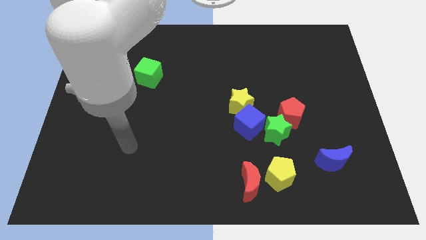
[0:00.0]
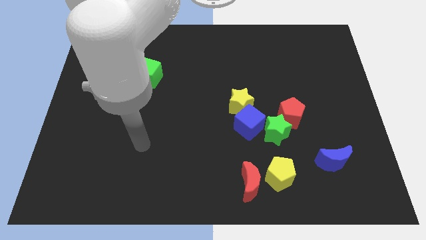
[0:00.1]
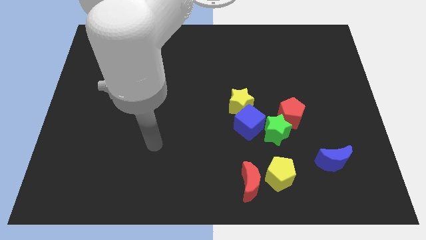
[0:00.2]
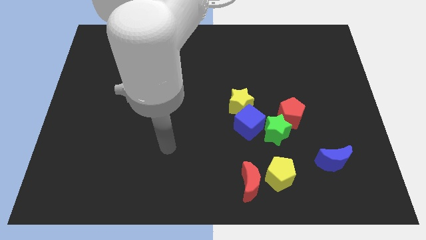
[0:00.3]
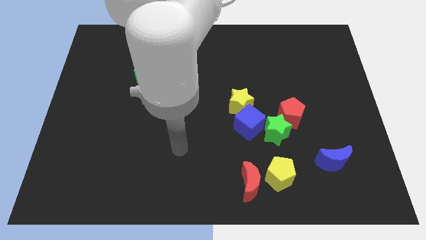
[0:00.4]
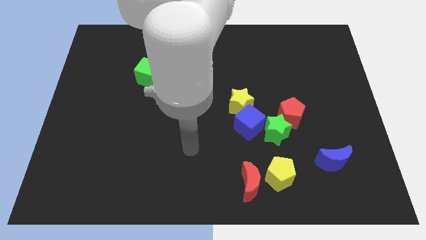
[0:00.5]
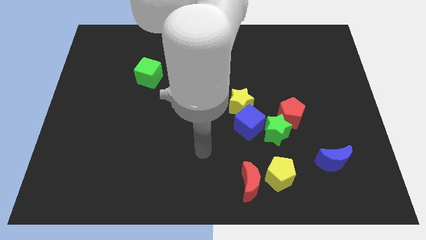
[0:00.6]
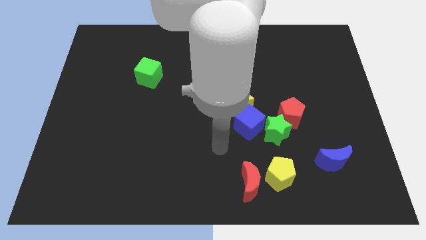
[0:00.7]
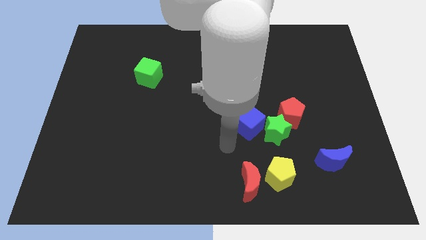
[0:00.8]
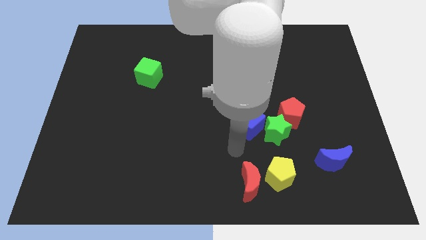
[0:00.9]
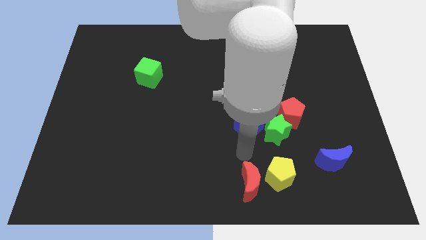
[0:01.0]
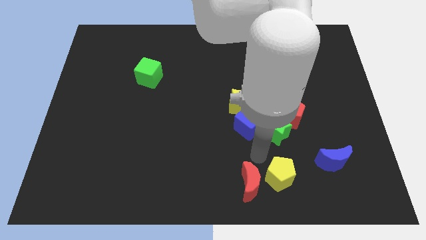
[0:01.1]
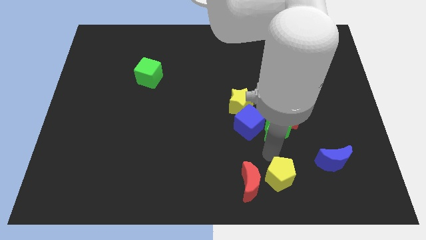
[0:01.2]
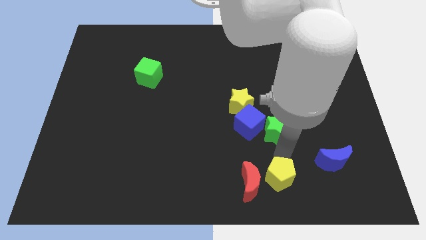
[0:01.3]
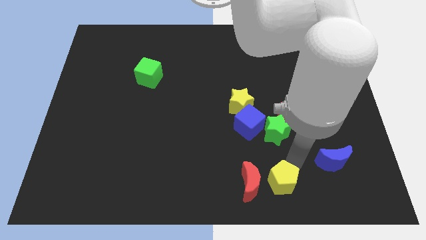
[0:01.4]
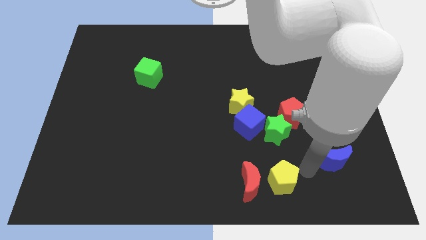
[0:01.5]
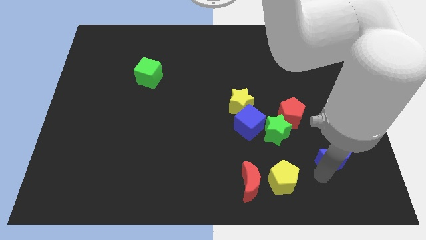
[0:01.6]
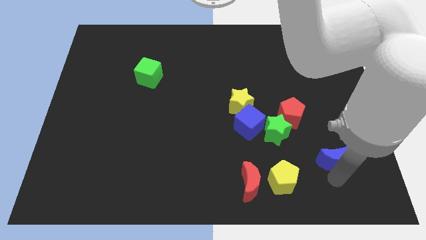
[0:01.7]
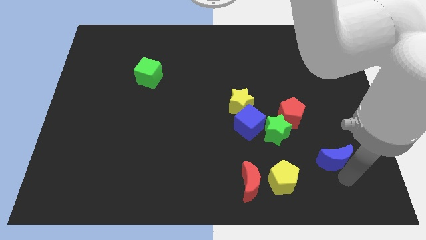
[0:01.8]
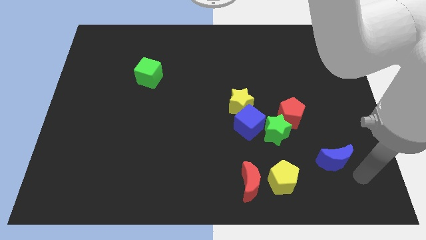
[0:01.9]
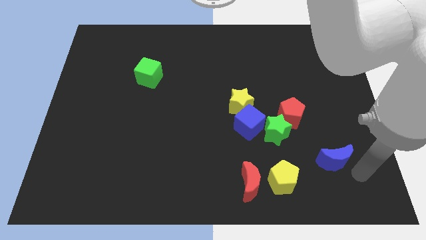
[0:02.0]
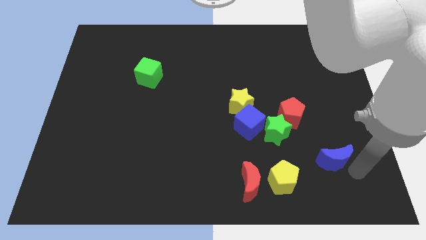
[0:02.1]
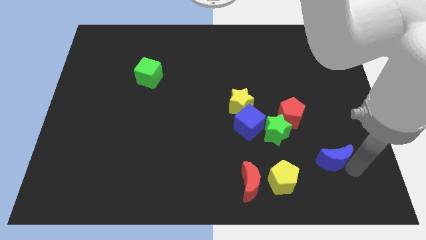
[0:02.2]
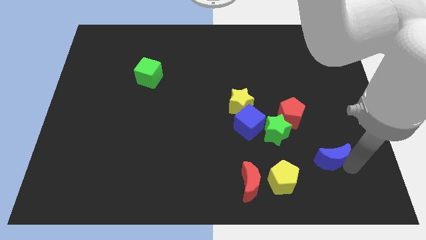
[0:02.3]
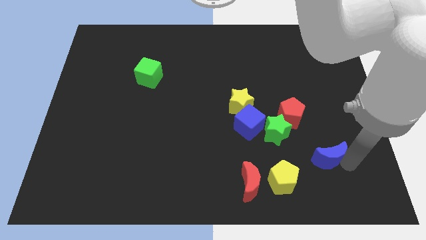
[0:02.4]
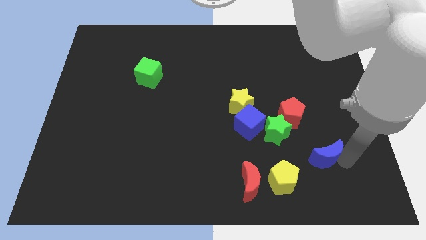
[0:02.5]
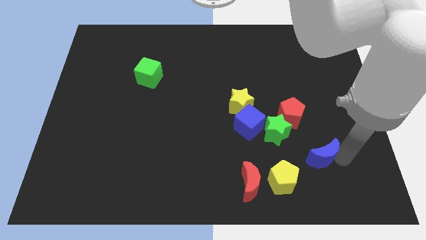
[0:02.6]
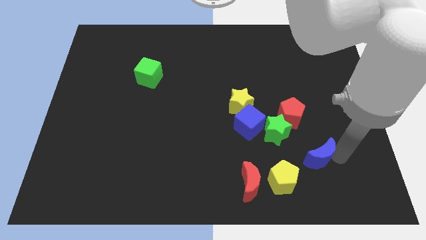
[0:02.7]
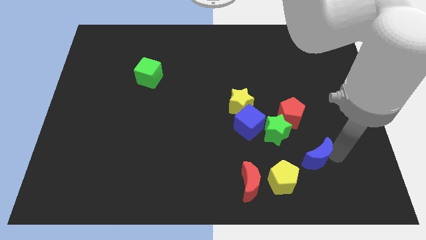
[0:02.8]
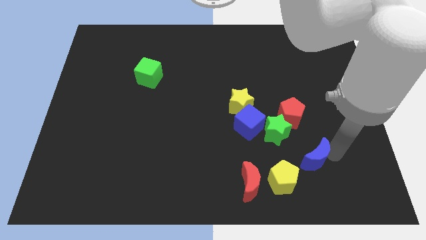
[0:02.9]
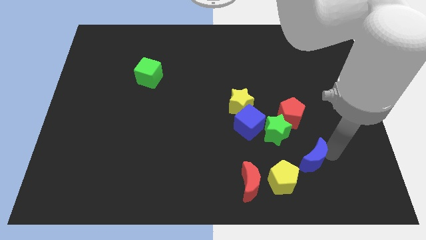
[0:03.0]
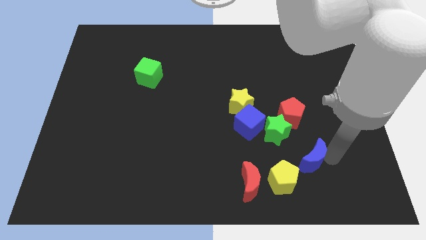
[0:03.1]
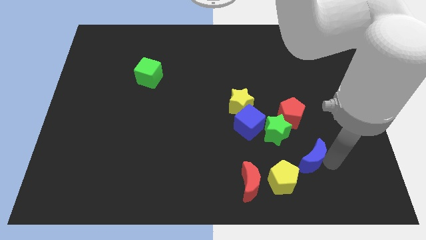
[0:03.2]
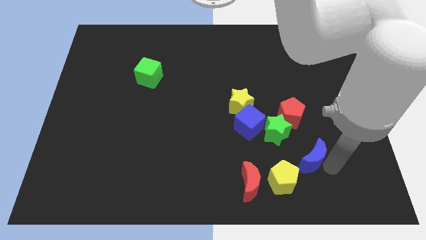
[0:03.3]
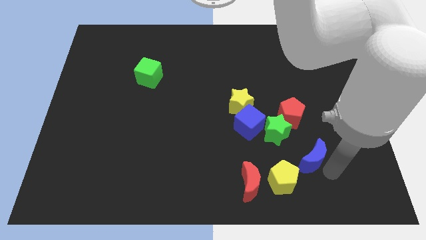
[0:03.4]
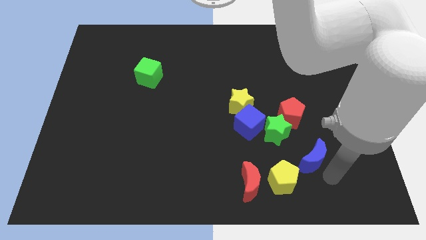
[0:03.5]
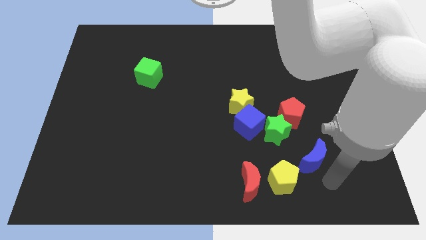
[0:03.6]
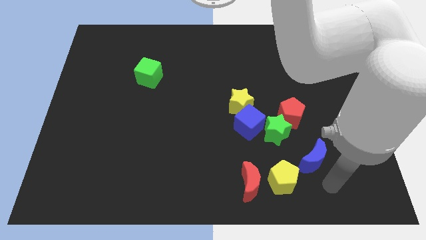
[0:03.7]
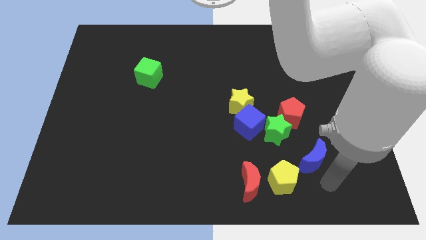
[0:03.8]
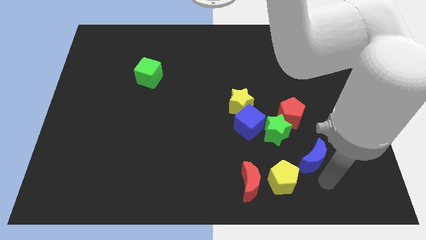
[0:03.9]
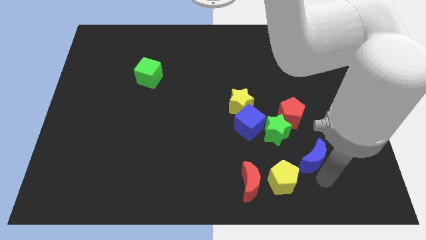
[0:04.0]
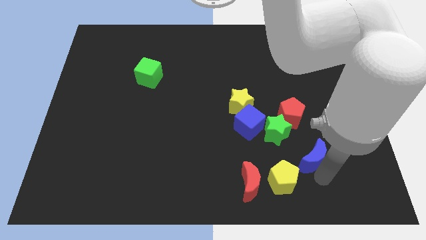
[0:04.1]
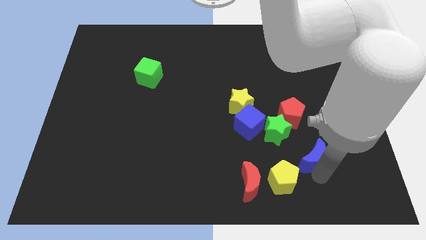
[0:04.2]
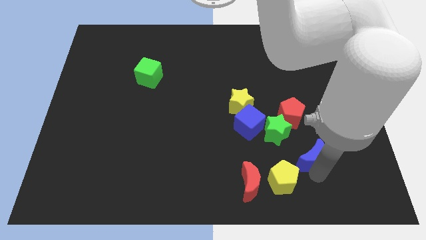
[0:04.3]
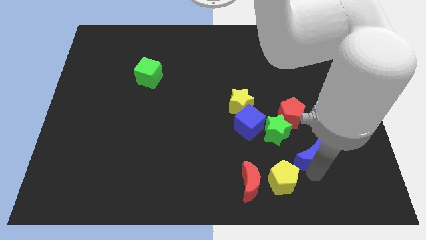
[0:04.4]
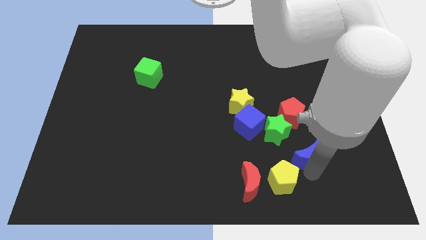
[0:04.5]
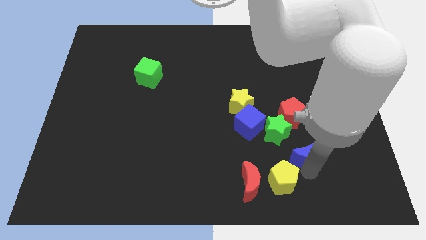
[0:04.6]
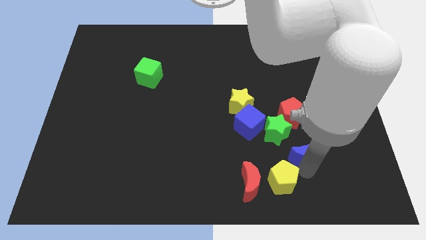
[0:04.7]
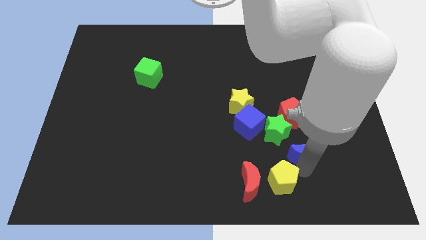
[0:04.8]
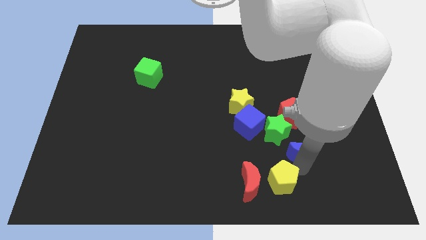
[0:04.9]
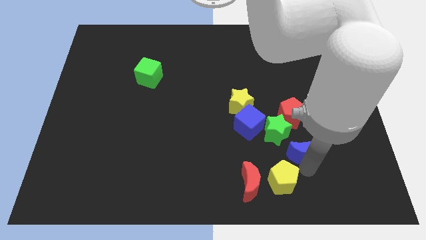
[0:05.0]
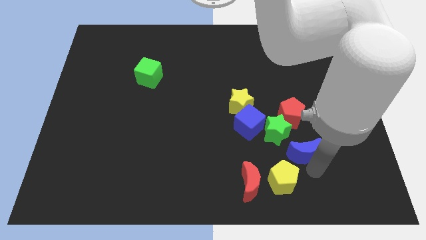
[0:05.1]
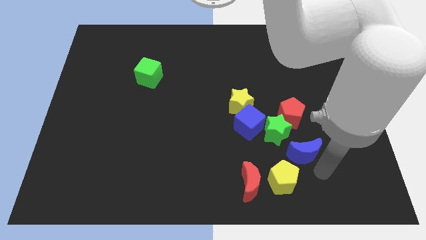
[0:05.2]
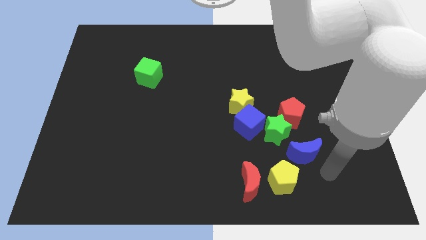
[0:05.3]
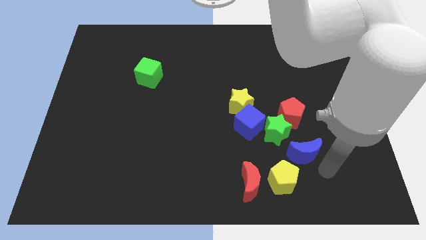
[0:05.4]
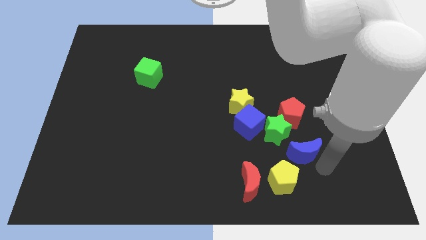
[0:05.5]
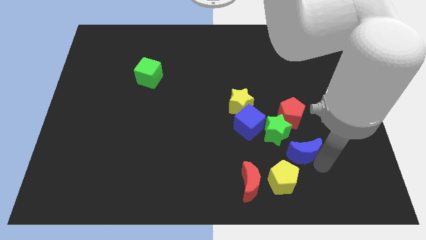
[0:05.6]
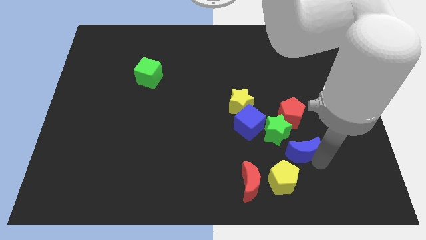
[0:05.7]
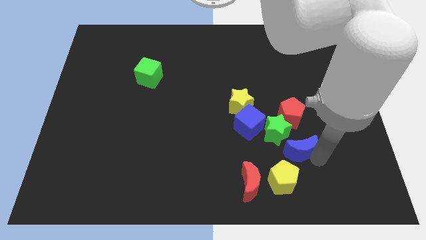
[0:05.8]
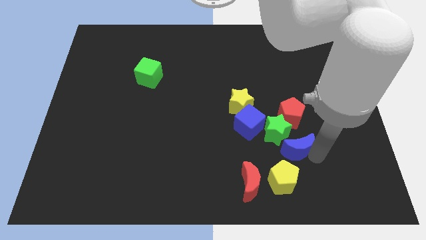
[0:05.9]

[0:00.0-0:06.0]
push the blue moon close to the green star
